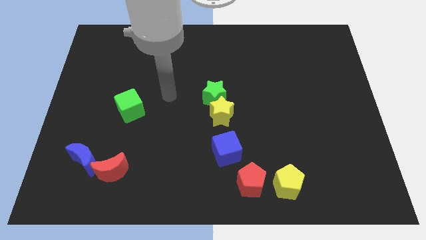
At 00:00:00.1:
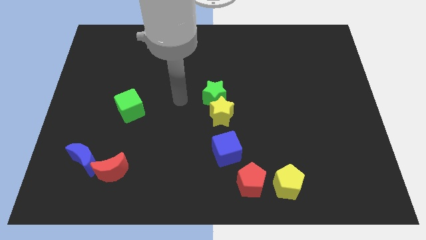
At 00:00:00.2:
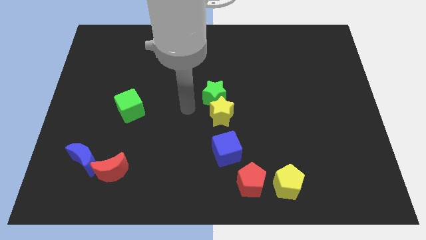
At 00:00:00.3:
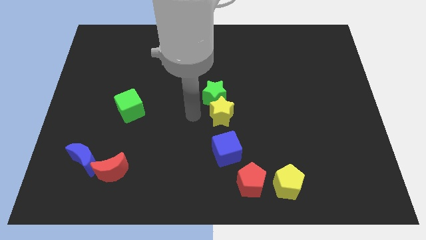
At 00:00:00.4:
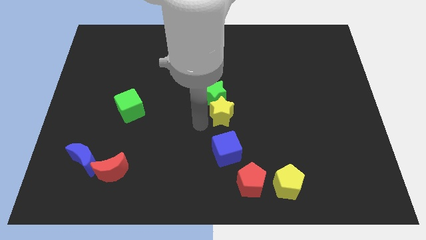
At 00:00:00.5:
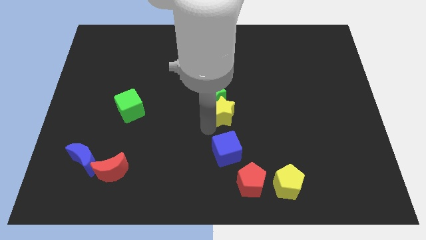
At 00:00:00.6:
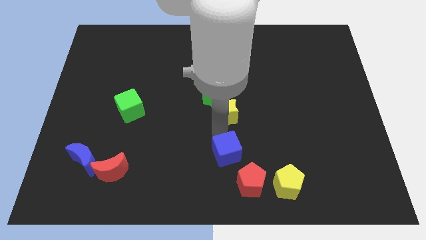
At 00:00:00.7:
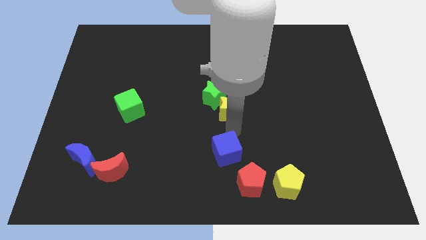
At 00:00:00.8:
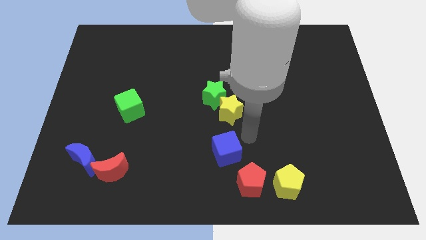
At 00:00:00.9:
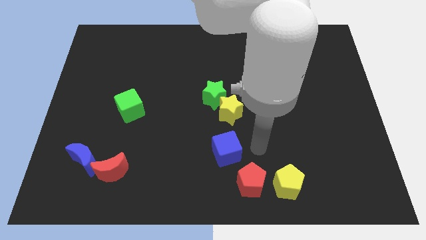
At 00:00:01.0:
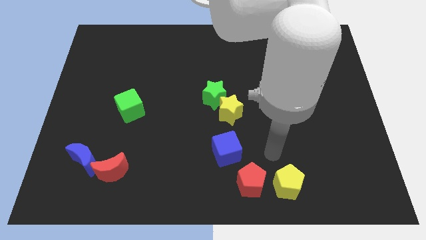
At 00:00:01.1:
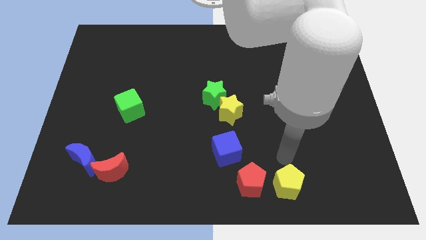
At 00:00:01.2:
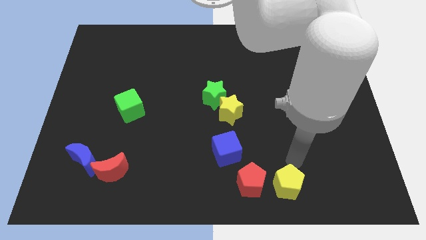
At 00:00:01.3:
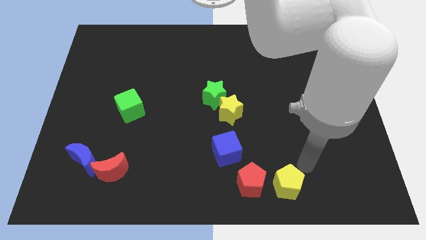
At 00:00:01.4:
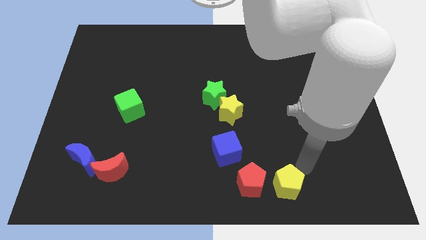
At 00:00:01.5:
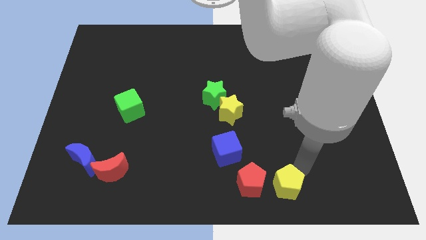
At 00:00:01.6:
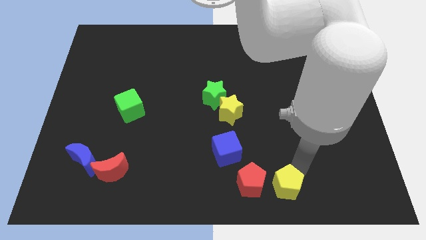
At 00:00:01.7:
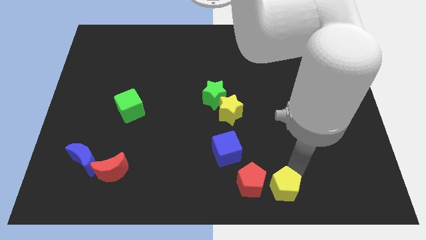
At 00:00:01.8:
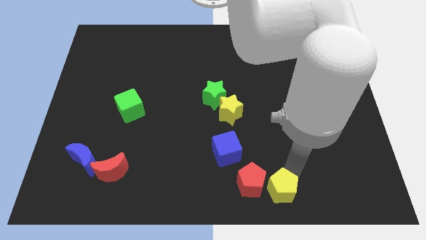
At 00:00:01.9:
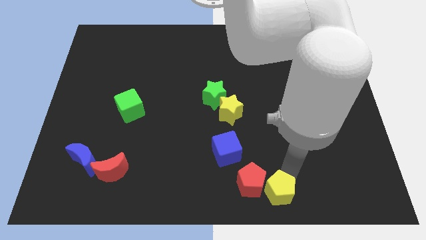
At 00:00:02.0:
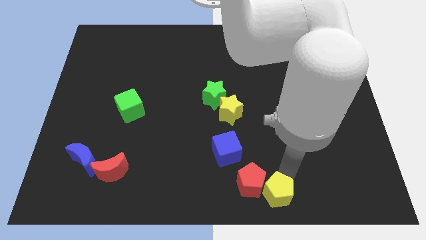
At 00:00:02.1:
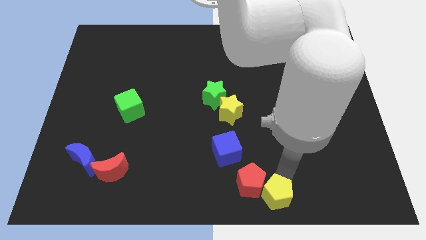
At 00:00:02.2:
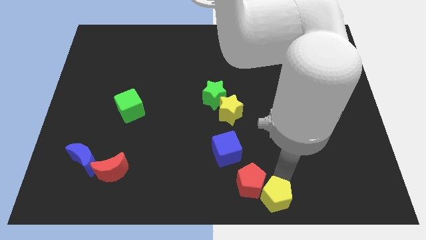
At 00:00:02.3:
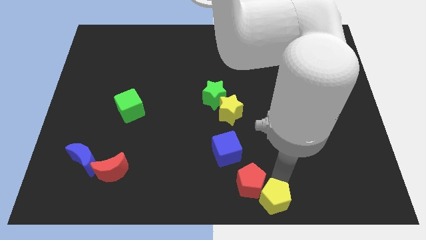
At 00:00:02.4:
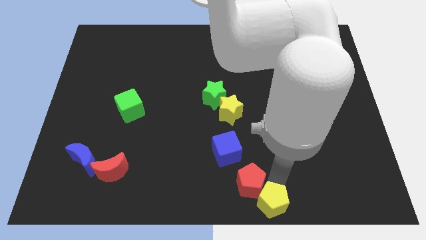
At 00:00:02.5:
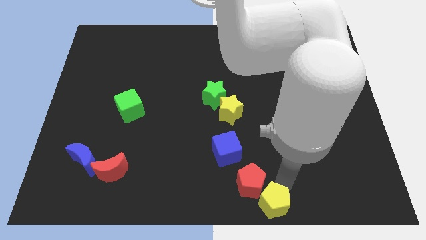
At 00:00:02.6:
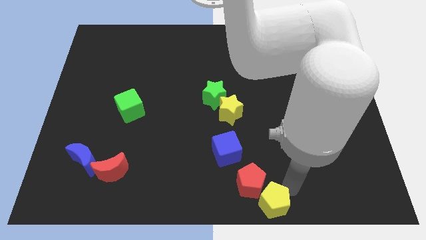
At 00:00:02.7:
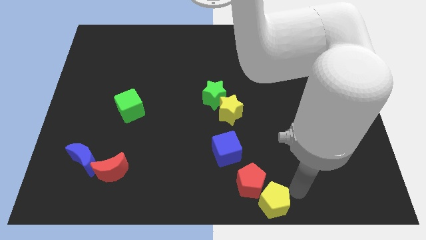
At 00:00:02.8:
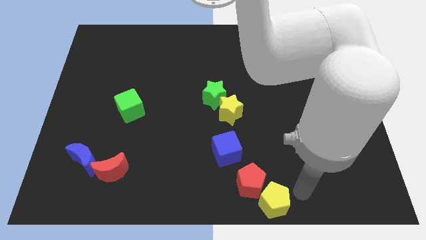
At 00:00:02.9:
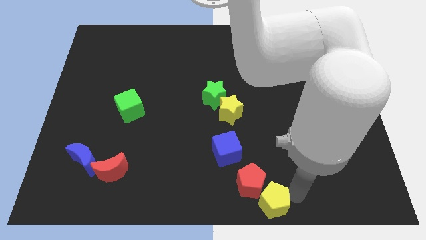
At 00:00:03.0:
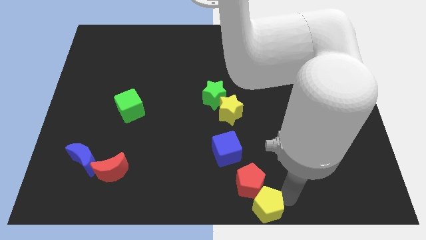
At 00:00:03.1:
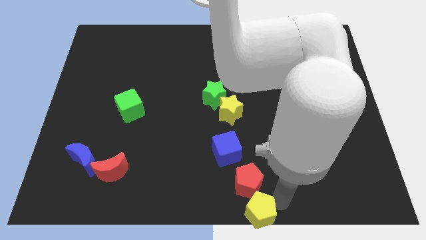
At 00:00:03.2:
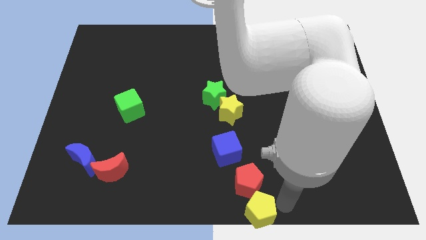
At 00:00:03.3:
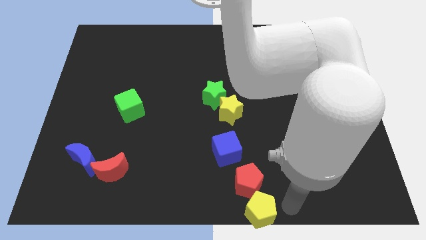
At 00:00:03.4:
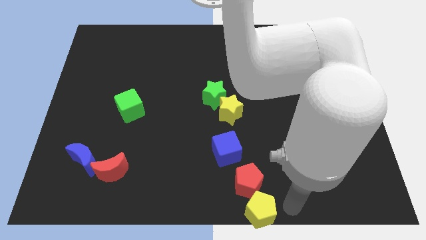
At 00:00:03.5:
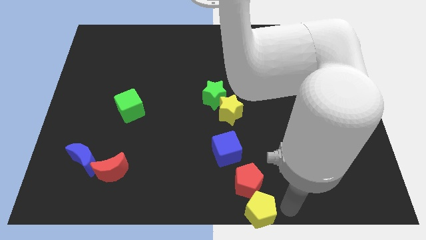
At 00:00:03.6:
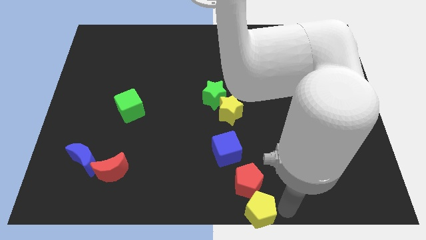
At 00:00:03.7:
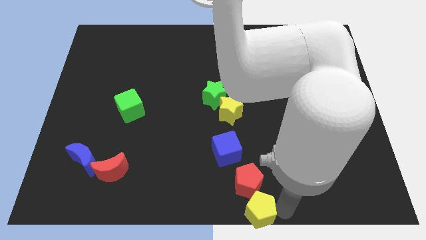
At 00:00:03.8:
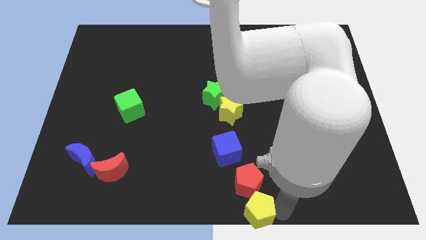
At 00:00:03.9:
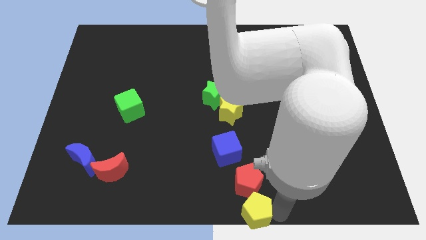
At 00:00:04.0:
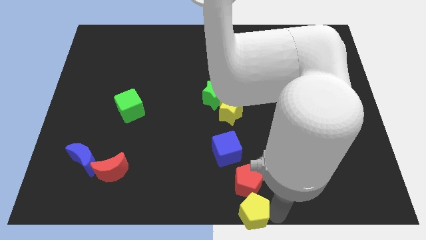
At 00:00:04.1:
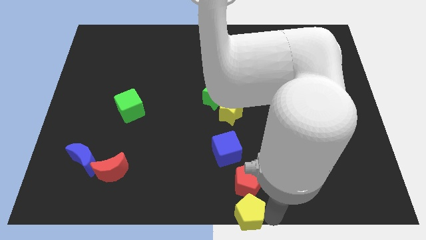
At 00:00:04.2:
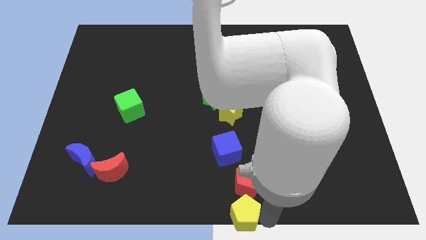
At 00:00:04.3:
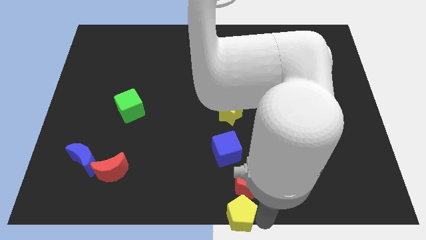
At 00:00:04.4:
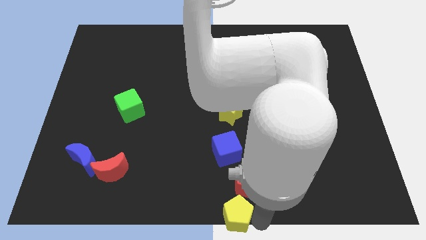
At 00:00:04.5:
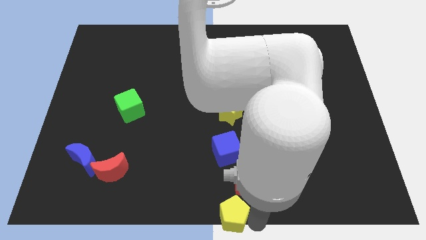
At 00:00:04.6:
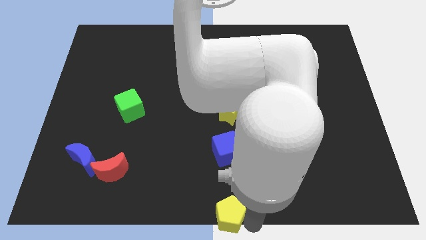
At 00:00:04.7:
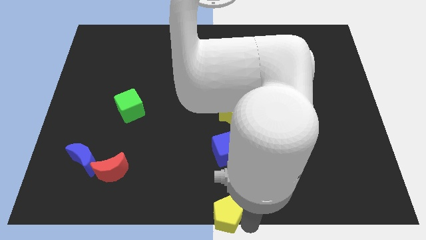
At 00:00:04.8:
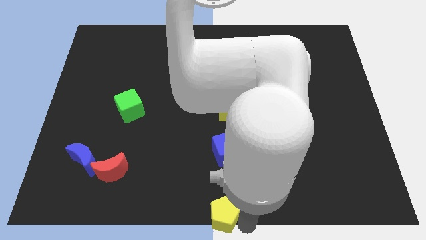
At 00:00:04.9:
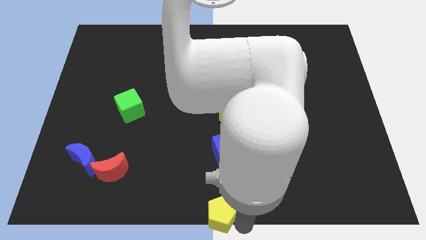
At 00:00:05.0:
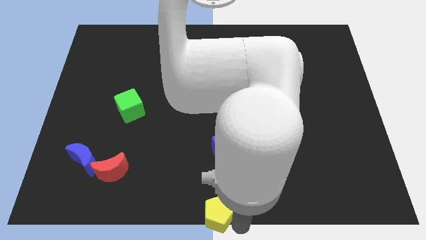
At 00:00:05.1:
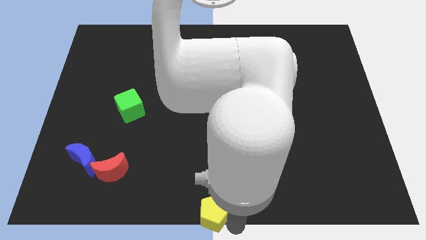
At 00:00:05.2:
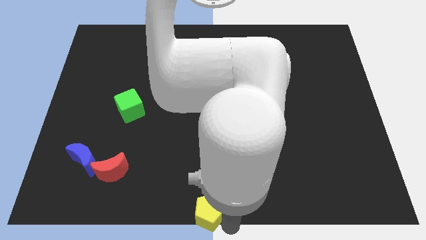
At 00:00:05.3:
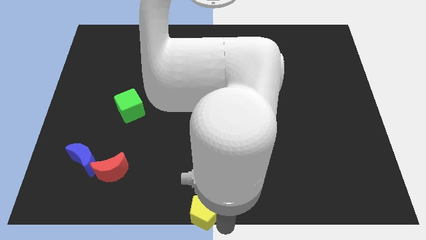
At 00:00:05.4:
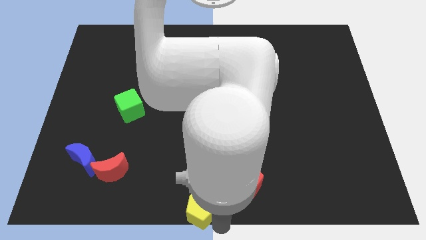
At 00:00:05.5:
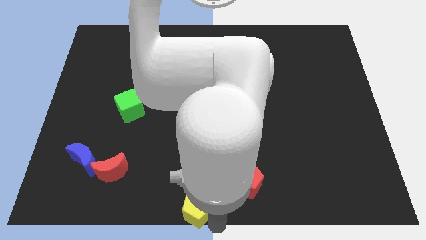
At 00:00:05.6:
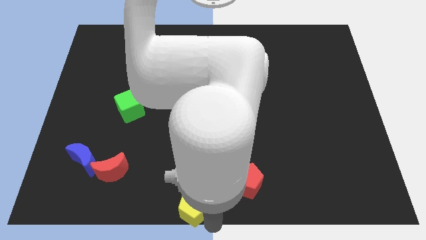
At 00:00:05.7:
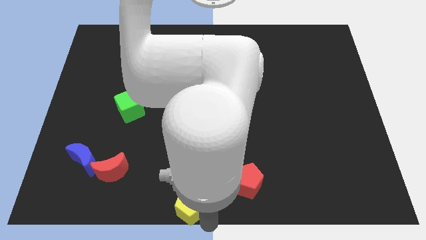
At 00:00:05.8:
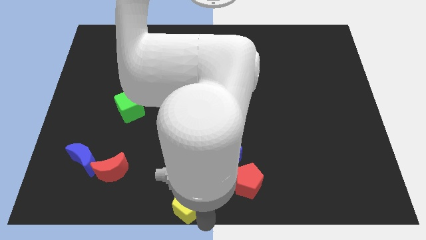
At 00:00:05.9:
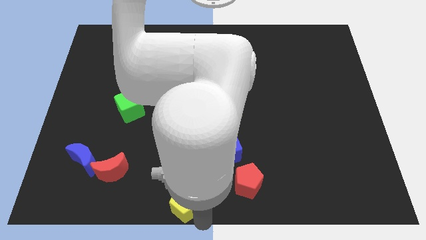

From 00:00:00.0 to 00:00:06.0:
push the yellow pentagon left

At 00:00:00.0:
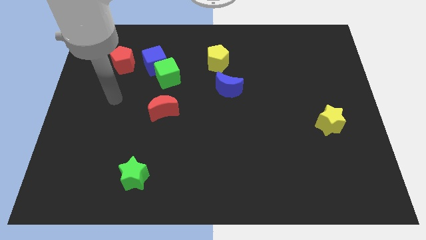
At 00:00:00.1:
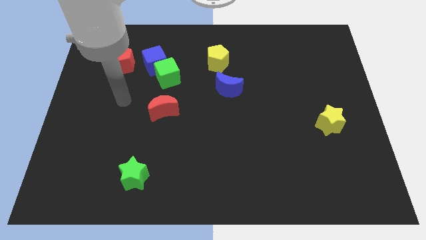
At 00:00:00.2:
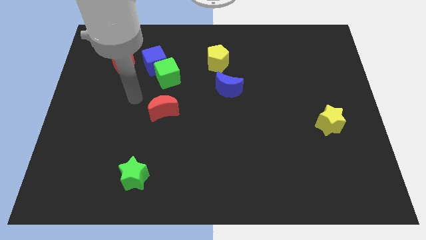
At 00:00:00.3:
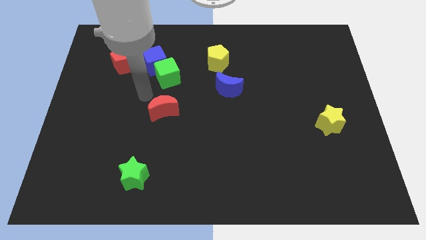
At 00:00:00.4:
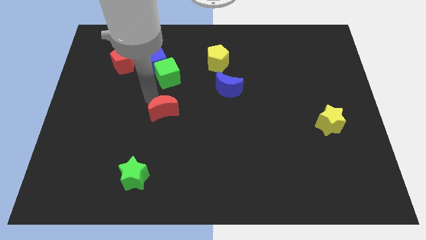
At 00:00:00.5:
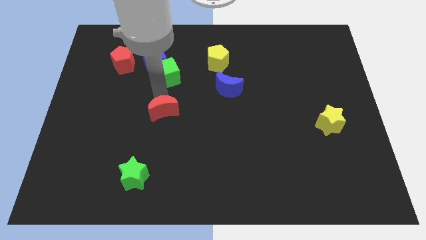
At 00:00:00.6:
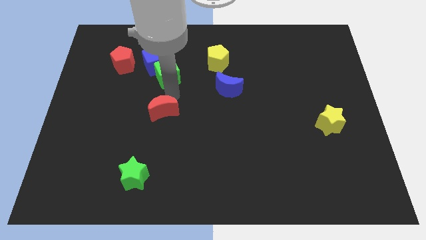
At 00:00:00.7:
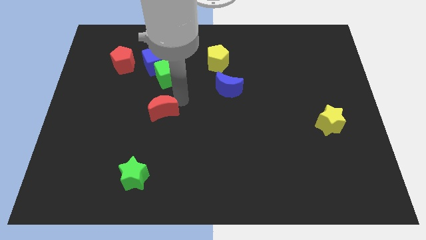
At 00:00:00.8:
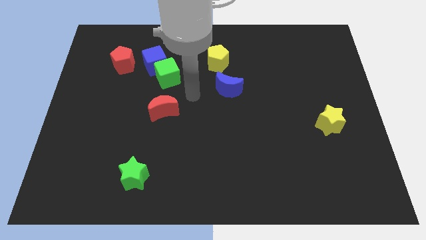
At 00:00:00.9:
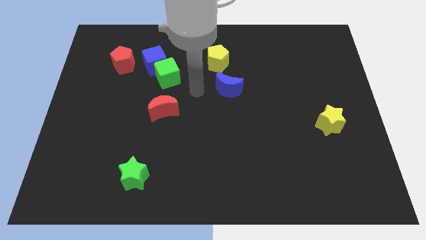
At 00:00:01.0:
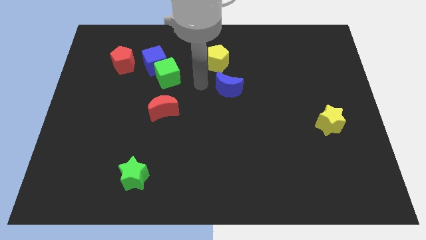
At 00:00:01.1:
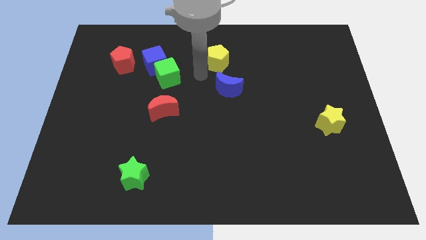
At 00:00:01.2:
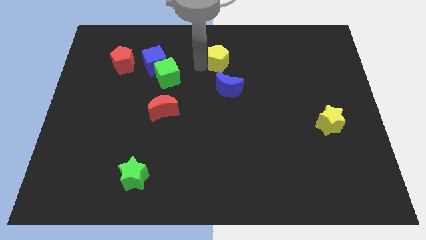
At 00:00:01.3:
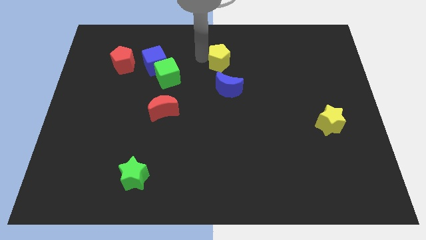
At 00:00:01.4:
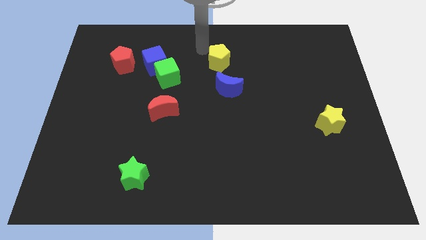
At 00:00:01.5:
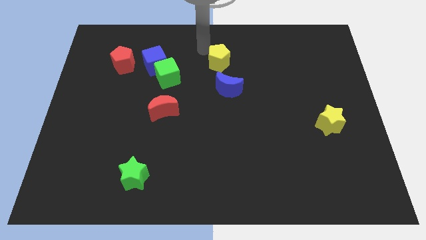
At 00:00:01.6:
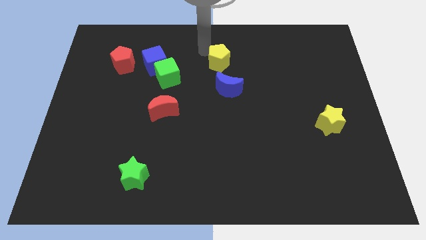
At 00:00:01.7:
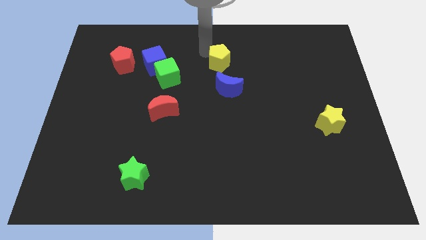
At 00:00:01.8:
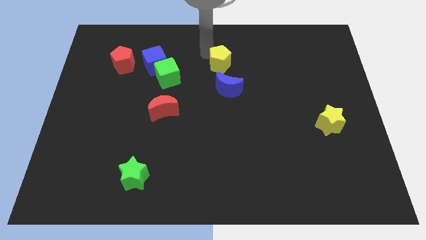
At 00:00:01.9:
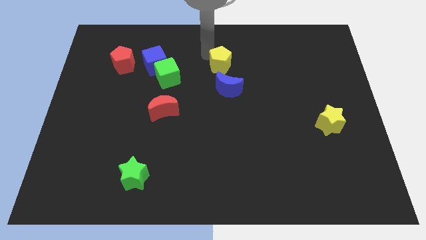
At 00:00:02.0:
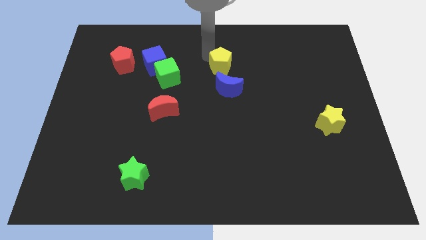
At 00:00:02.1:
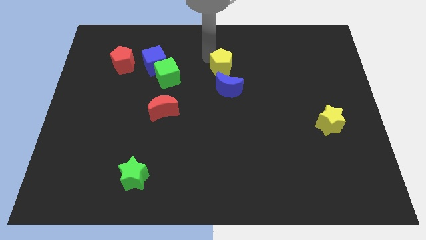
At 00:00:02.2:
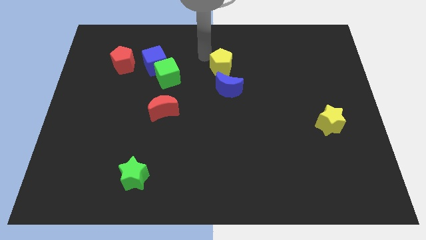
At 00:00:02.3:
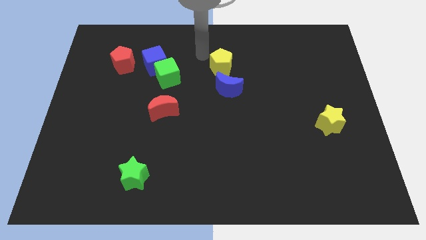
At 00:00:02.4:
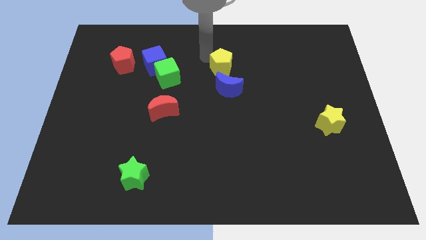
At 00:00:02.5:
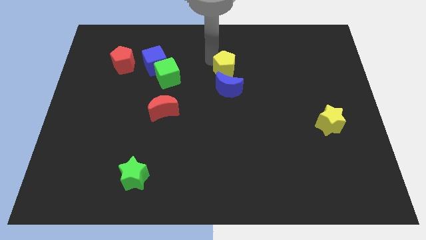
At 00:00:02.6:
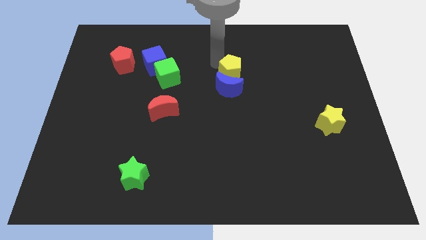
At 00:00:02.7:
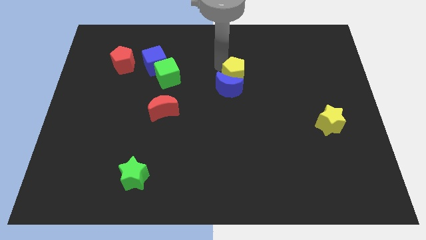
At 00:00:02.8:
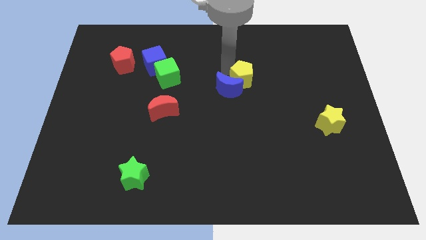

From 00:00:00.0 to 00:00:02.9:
move the yellow pentagon a little down and right
